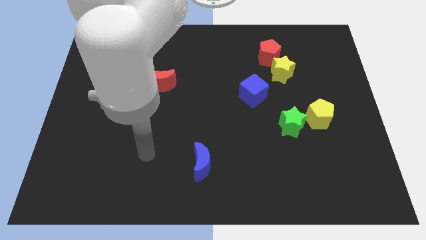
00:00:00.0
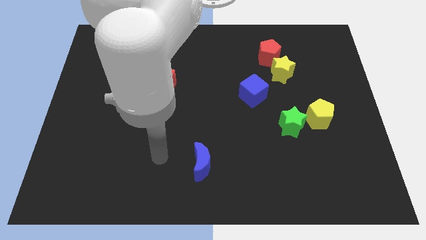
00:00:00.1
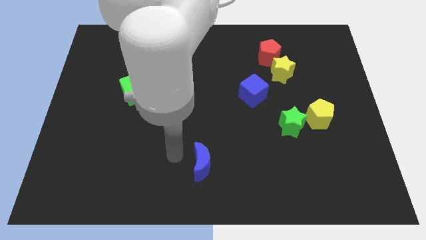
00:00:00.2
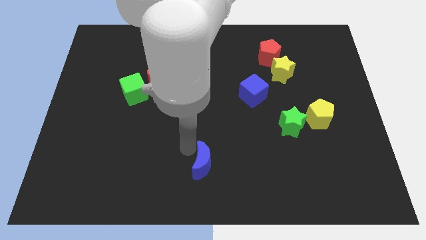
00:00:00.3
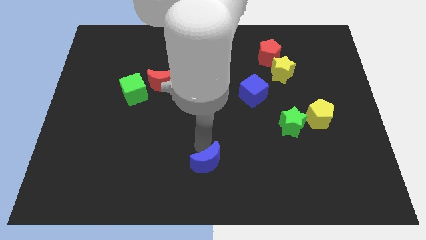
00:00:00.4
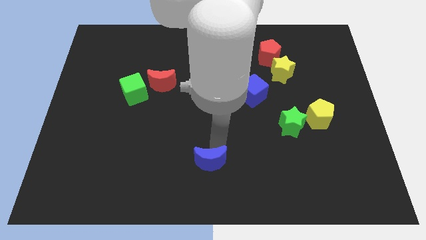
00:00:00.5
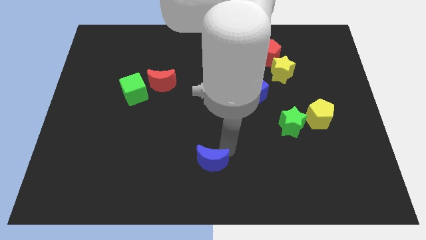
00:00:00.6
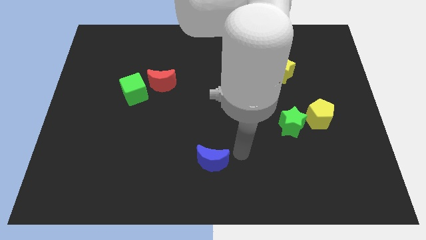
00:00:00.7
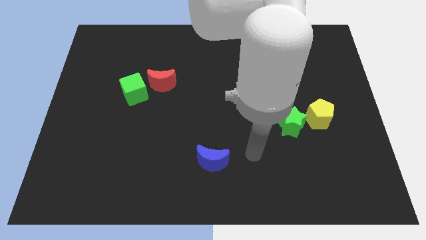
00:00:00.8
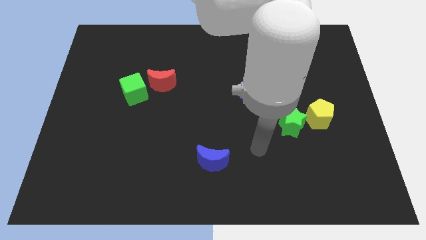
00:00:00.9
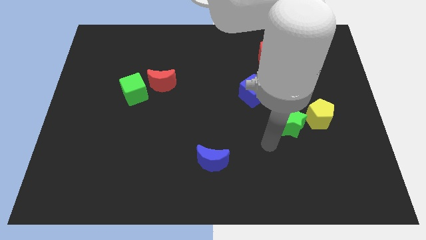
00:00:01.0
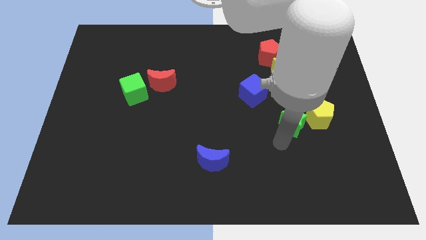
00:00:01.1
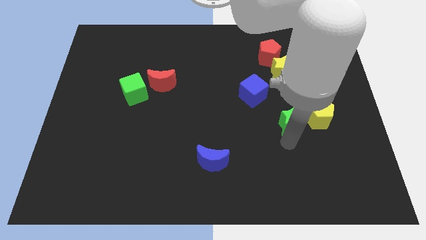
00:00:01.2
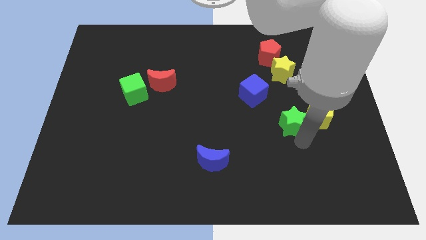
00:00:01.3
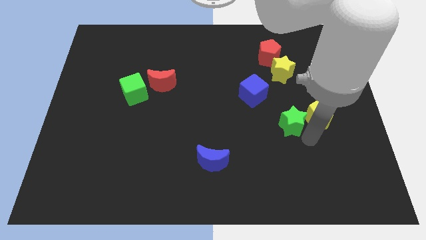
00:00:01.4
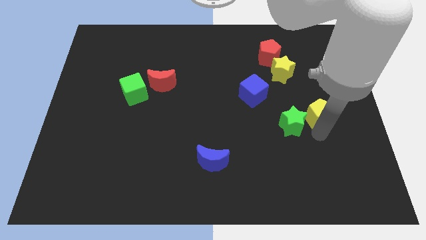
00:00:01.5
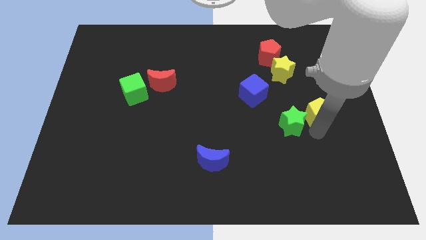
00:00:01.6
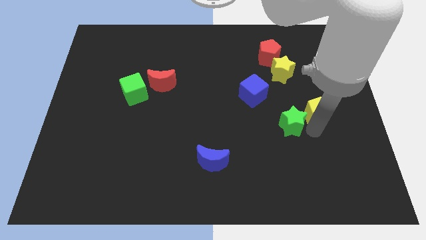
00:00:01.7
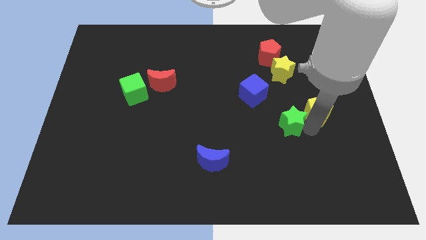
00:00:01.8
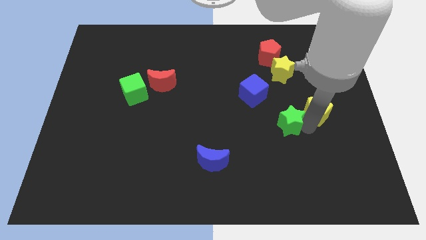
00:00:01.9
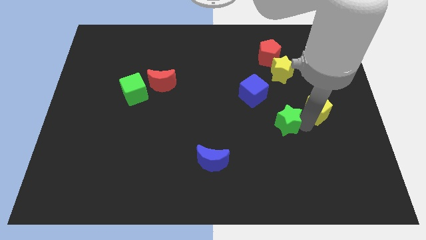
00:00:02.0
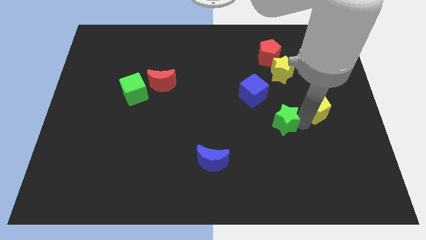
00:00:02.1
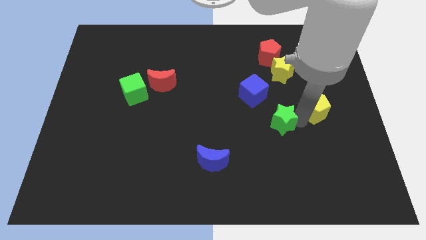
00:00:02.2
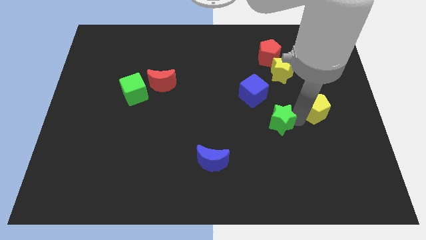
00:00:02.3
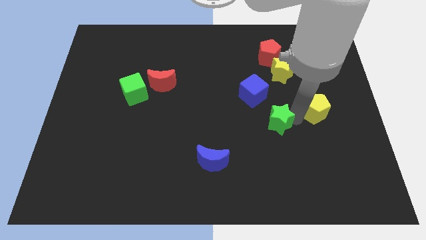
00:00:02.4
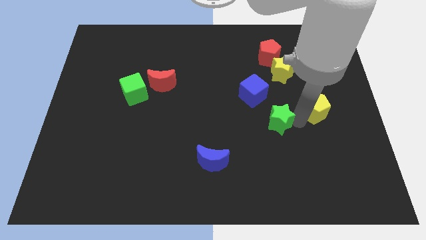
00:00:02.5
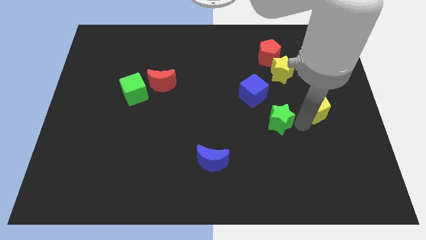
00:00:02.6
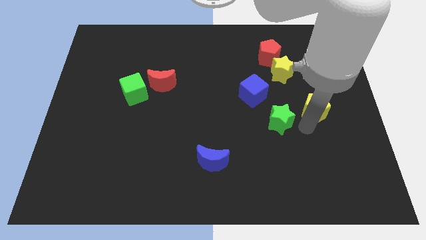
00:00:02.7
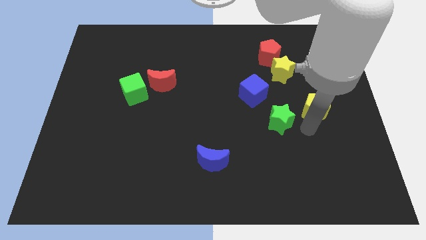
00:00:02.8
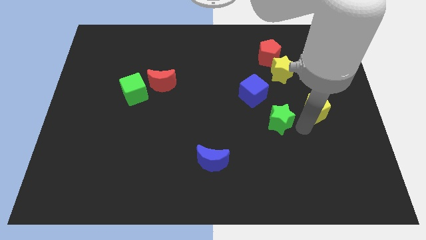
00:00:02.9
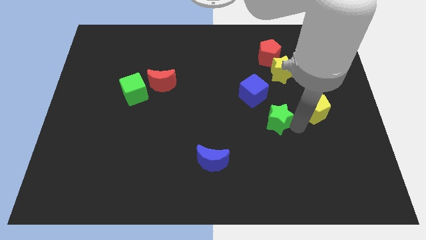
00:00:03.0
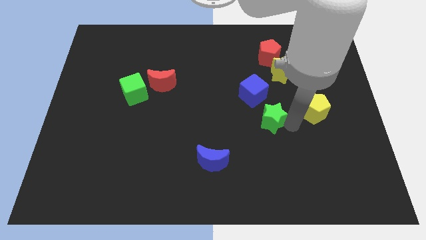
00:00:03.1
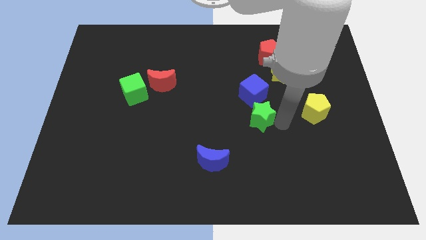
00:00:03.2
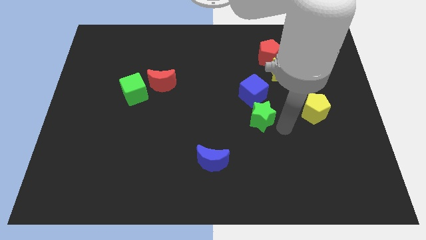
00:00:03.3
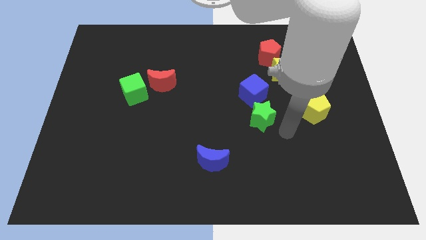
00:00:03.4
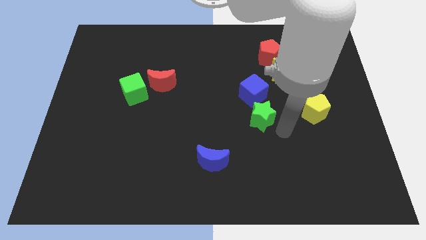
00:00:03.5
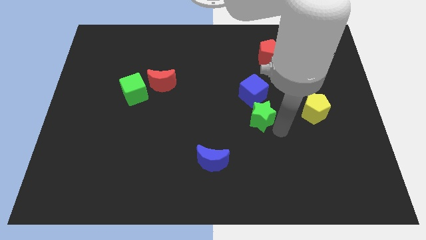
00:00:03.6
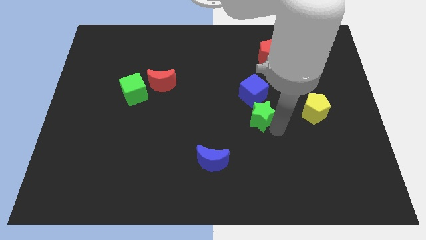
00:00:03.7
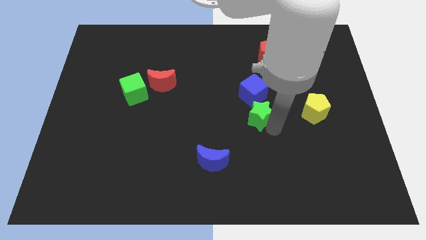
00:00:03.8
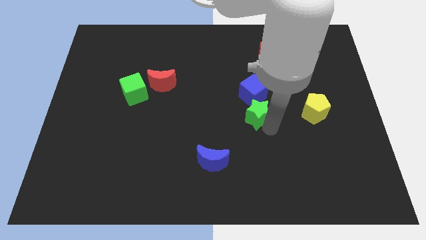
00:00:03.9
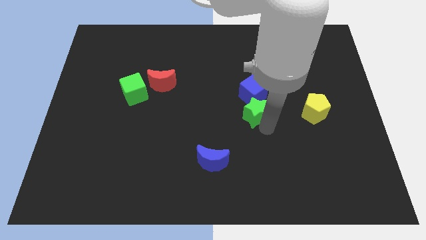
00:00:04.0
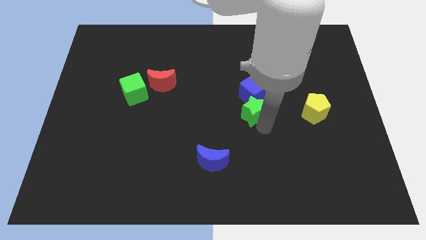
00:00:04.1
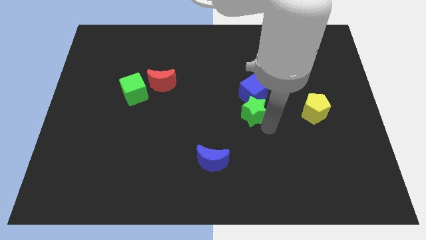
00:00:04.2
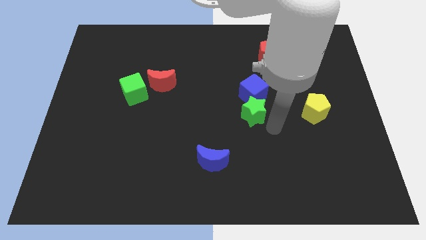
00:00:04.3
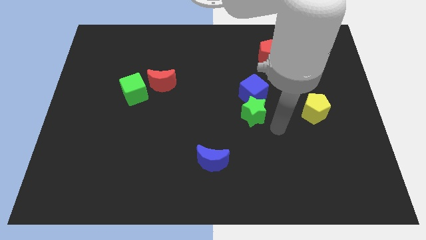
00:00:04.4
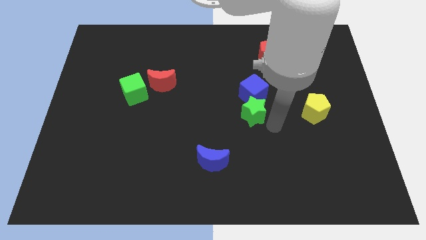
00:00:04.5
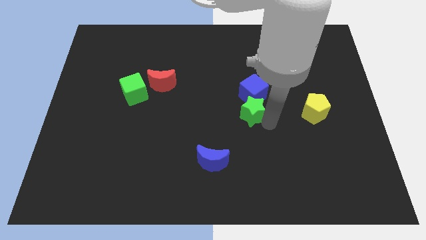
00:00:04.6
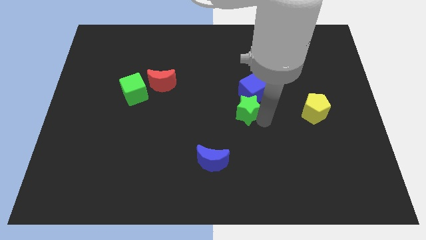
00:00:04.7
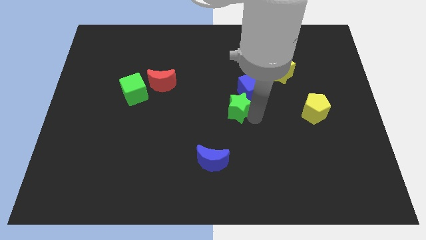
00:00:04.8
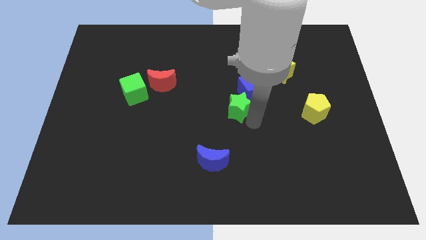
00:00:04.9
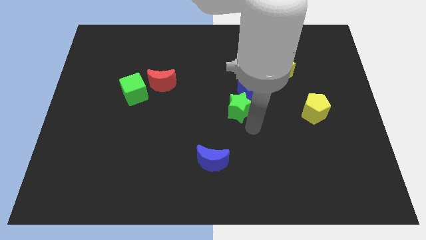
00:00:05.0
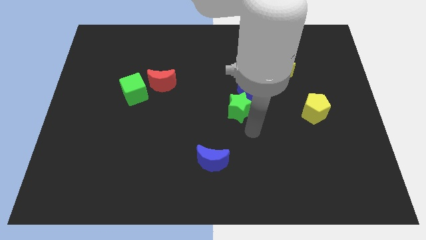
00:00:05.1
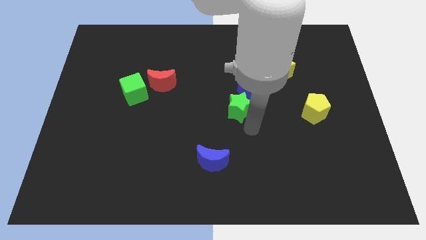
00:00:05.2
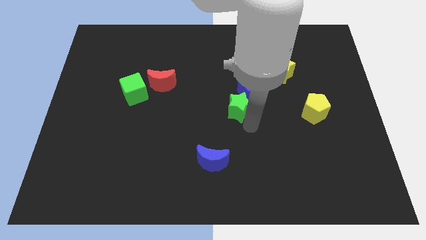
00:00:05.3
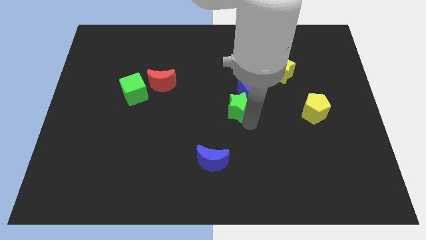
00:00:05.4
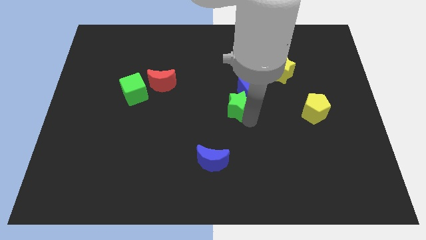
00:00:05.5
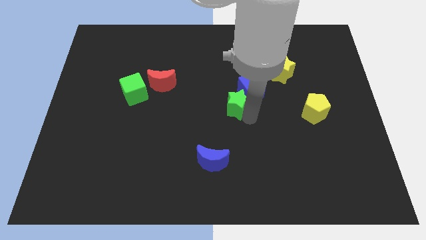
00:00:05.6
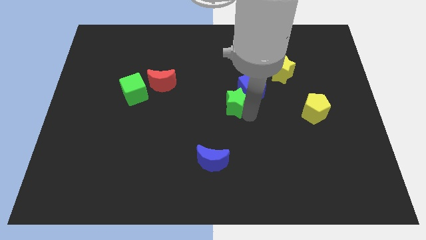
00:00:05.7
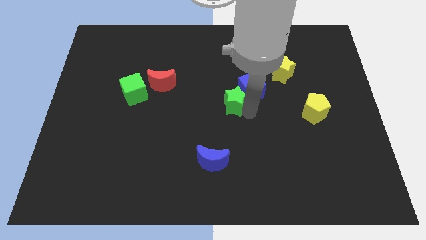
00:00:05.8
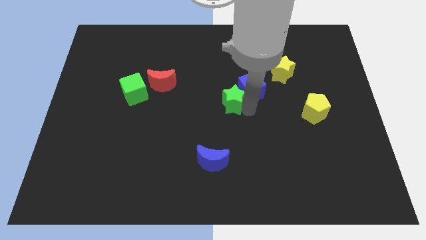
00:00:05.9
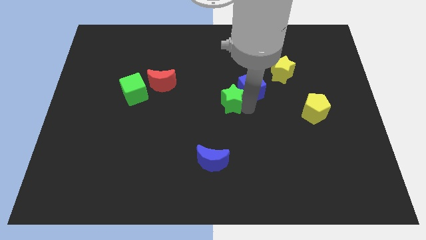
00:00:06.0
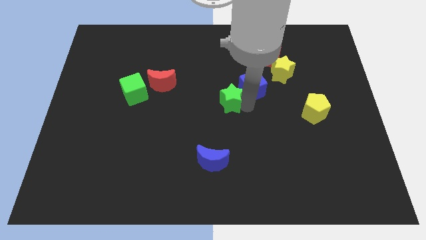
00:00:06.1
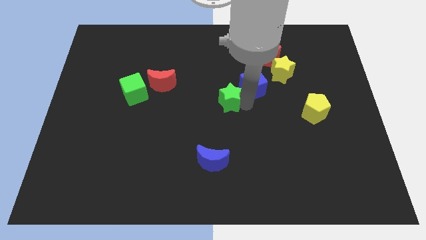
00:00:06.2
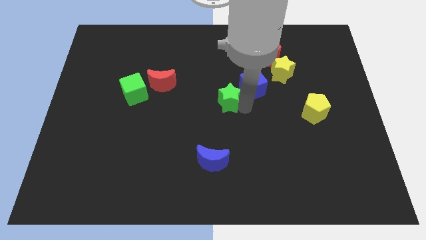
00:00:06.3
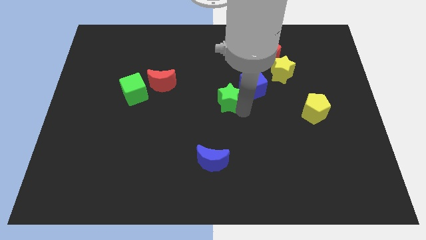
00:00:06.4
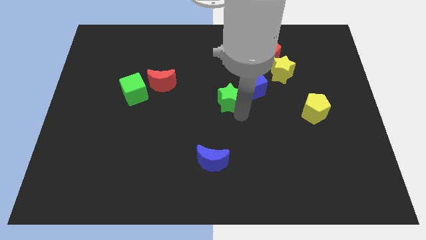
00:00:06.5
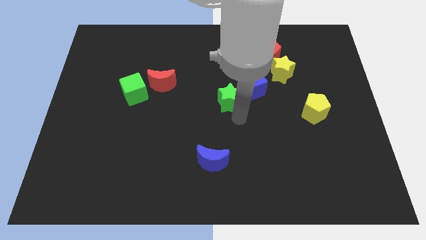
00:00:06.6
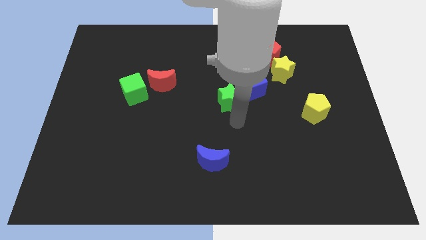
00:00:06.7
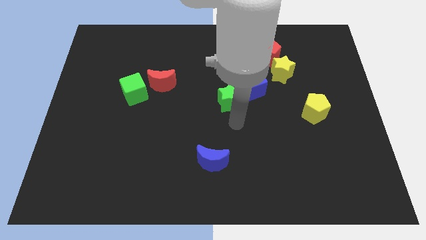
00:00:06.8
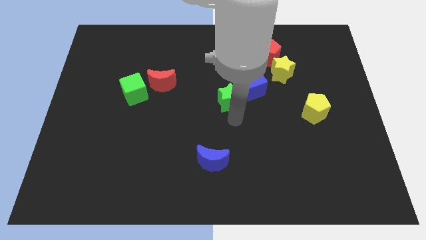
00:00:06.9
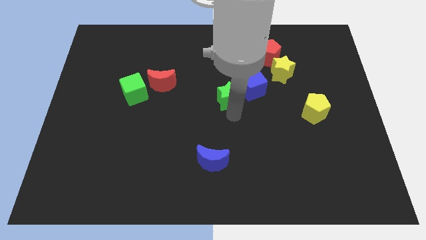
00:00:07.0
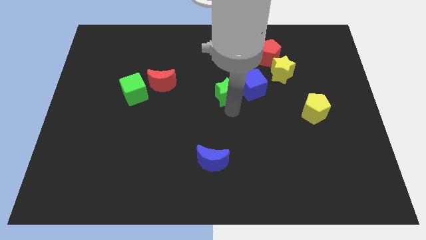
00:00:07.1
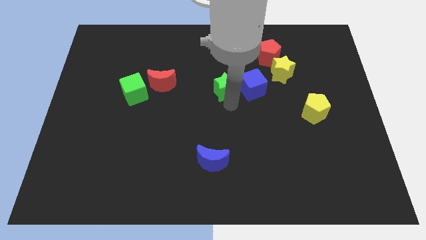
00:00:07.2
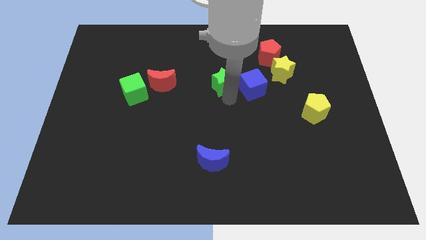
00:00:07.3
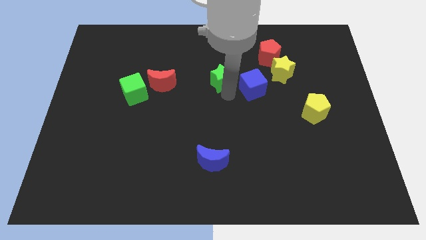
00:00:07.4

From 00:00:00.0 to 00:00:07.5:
push the green star upwards and to the left

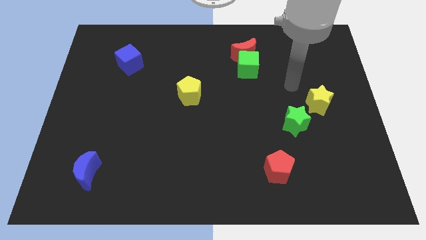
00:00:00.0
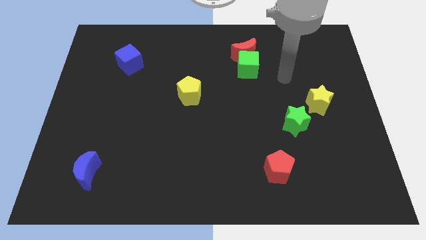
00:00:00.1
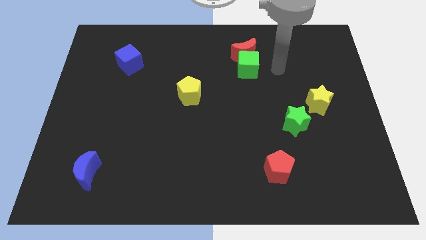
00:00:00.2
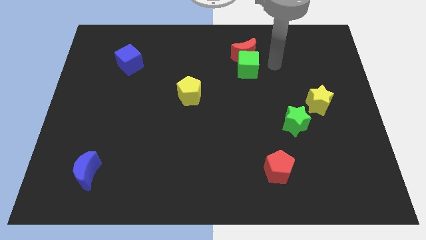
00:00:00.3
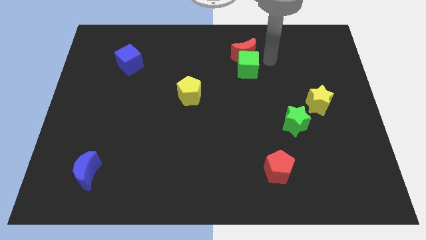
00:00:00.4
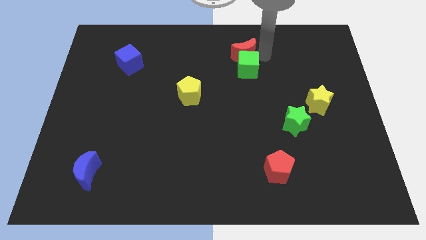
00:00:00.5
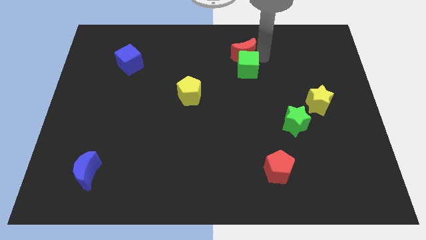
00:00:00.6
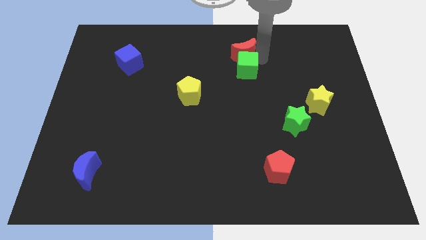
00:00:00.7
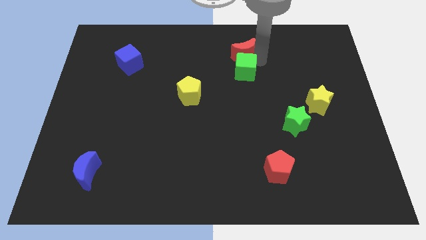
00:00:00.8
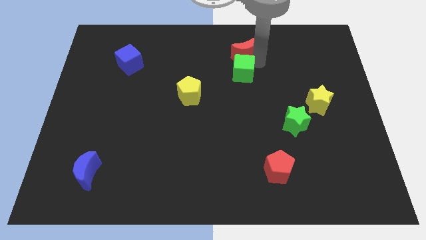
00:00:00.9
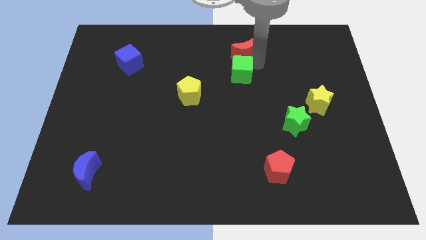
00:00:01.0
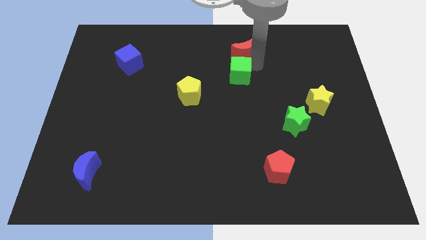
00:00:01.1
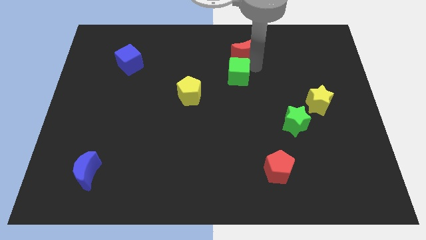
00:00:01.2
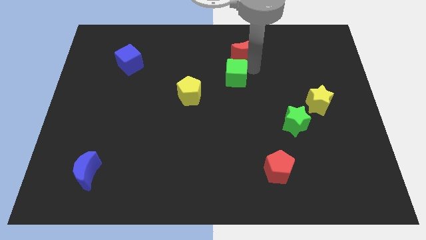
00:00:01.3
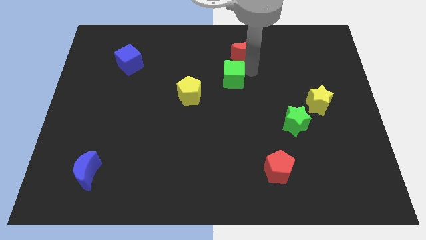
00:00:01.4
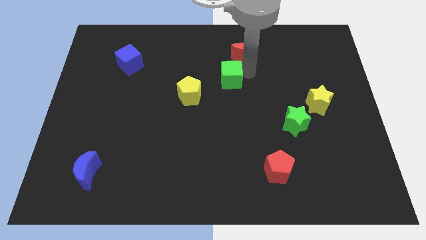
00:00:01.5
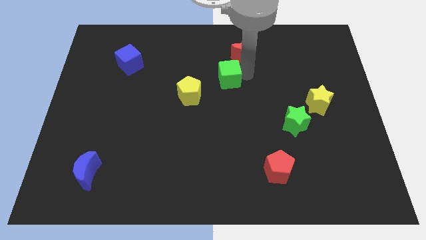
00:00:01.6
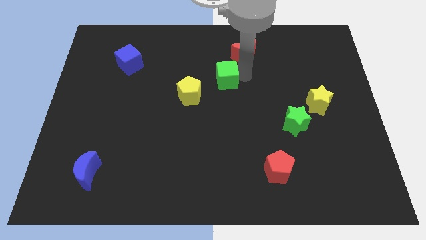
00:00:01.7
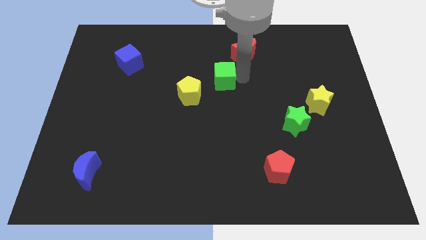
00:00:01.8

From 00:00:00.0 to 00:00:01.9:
slightly slide the green cube downwards and to the left diagonally
